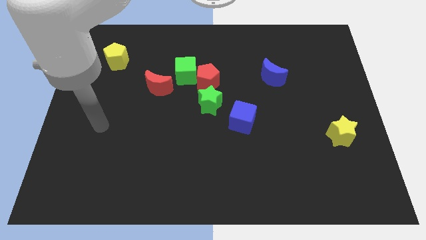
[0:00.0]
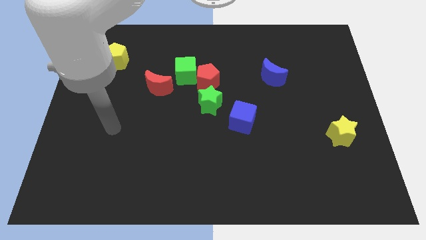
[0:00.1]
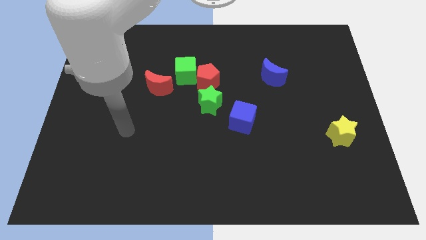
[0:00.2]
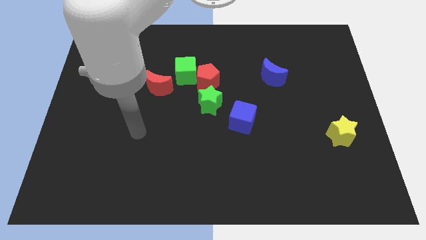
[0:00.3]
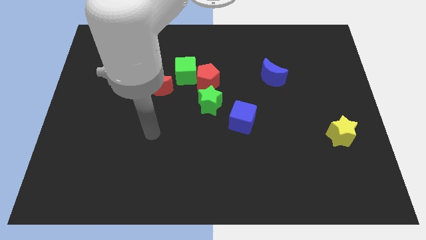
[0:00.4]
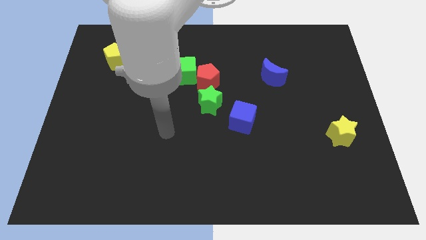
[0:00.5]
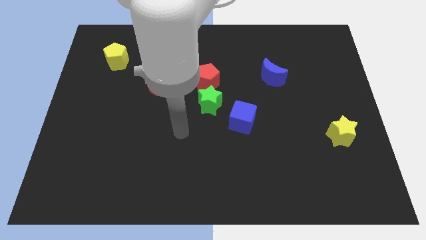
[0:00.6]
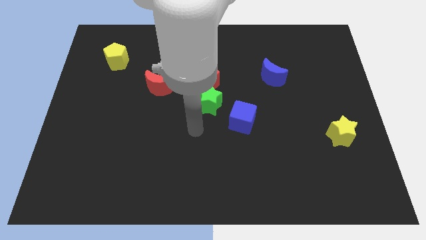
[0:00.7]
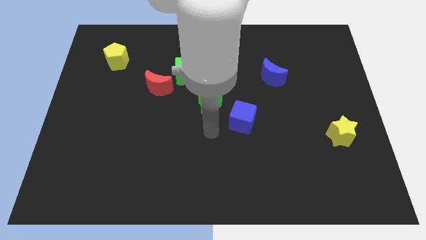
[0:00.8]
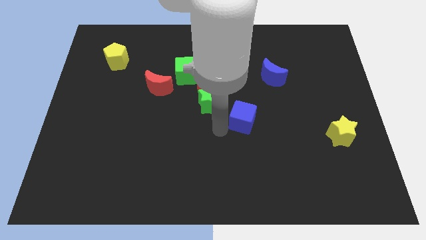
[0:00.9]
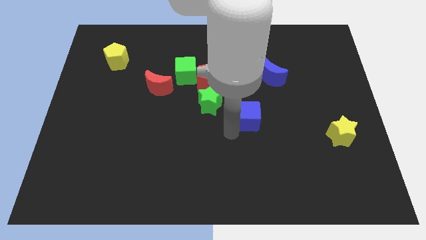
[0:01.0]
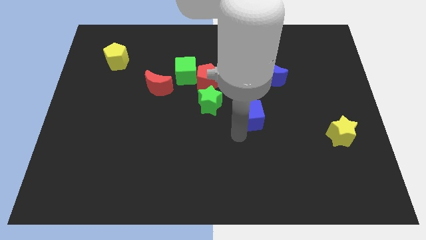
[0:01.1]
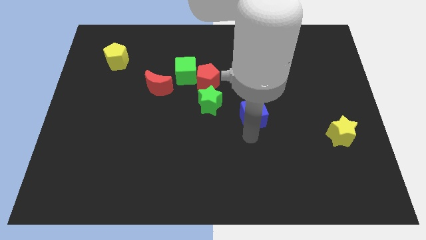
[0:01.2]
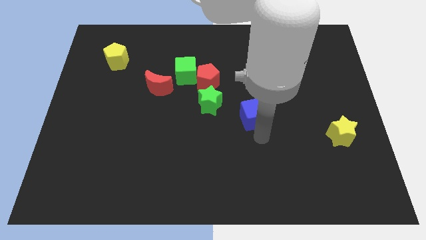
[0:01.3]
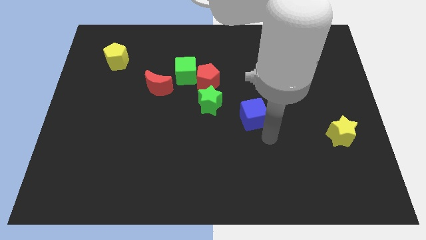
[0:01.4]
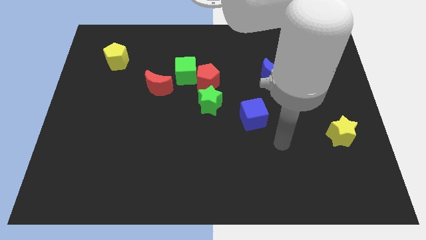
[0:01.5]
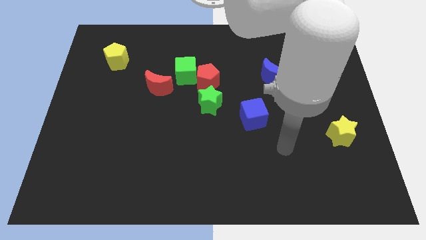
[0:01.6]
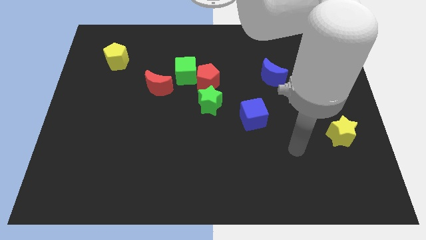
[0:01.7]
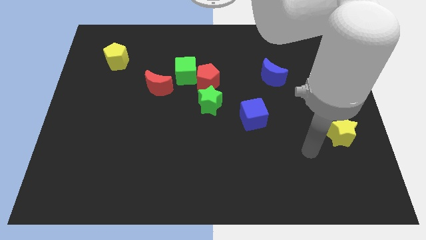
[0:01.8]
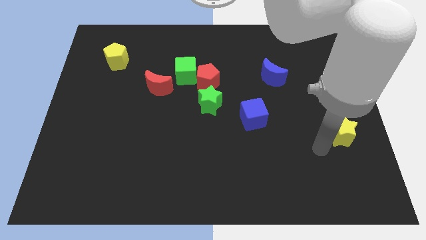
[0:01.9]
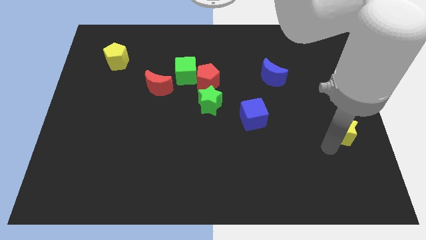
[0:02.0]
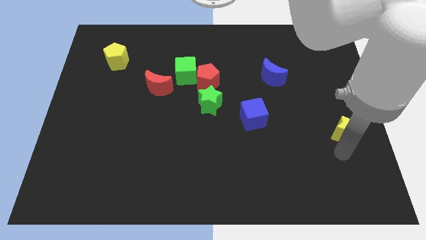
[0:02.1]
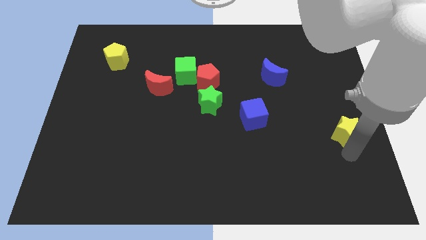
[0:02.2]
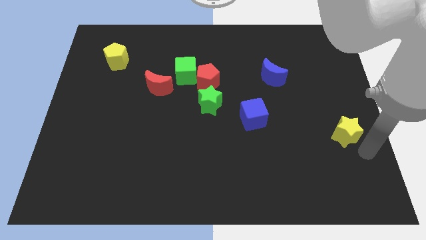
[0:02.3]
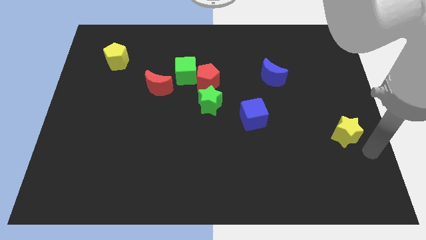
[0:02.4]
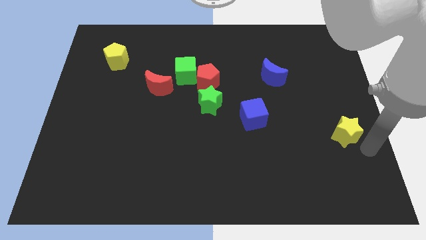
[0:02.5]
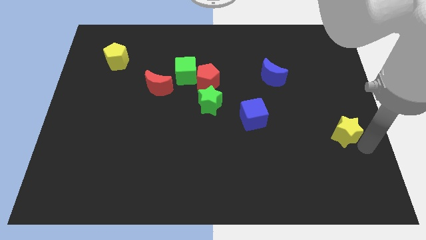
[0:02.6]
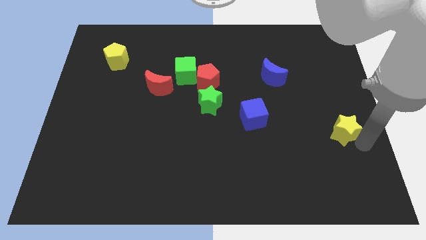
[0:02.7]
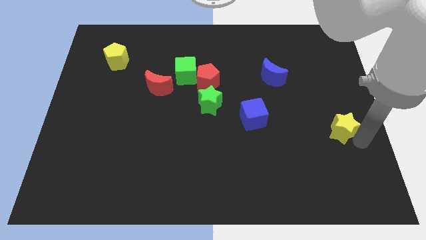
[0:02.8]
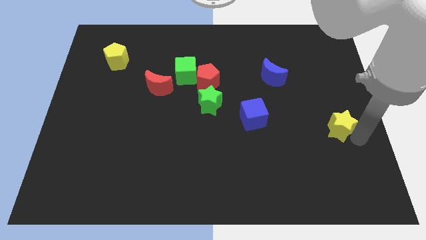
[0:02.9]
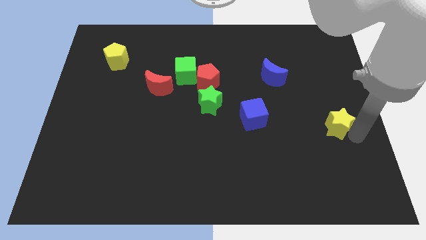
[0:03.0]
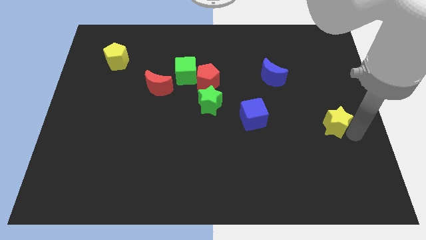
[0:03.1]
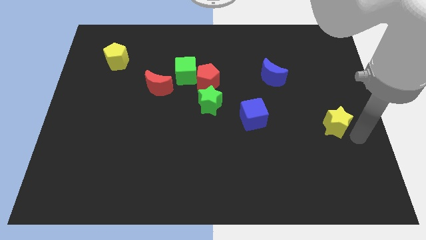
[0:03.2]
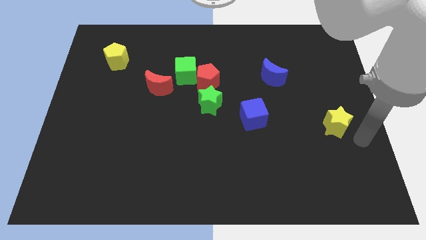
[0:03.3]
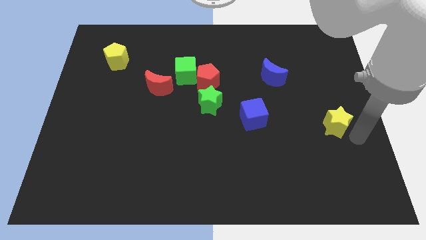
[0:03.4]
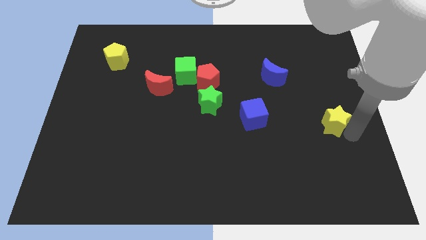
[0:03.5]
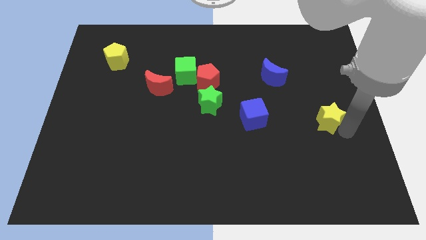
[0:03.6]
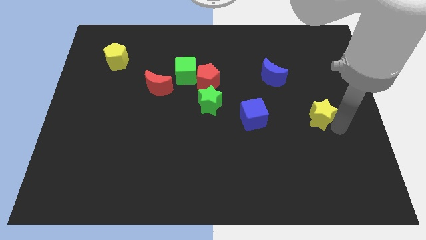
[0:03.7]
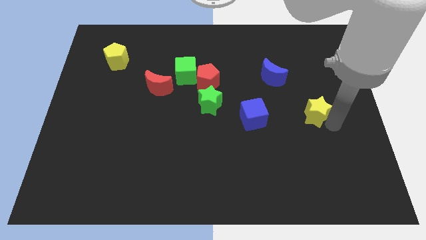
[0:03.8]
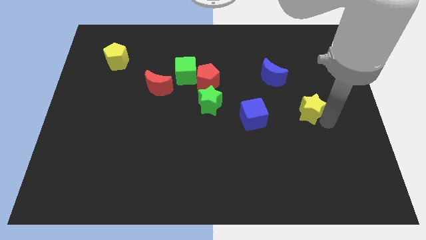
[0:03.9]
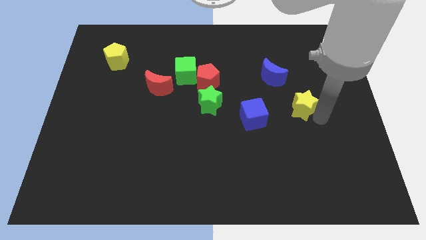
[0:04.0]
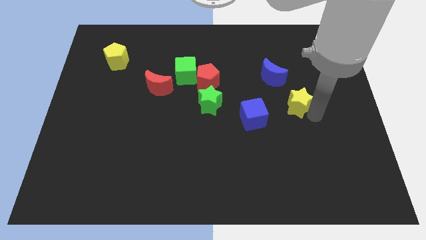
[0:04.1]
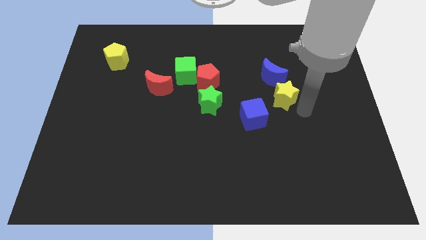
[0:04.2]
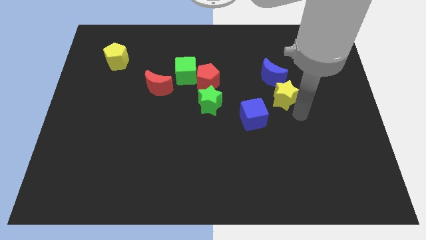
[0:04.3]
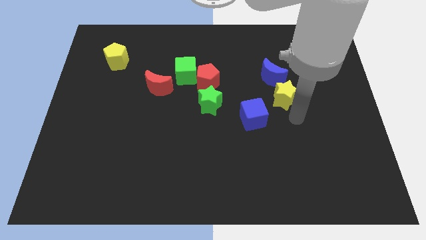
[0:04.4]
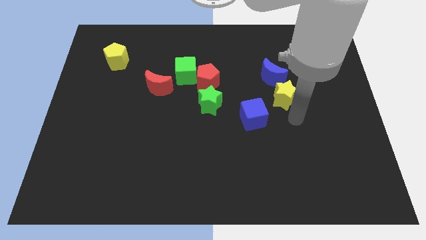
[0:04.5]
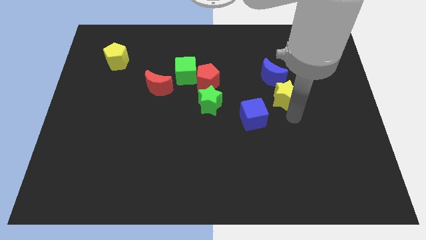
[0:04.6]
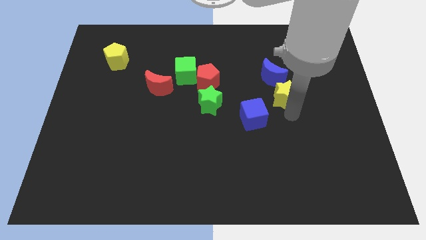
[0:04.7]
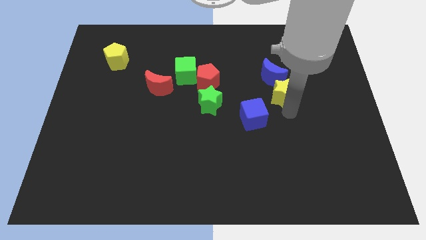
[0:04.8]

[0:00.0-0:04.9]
push the yellow star towards the blue moon

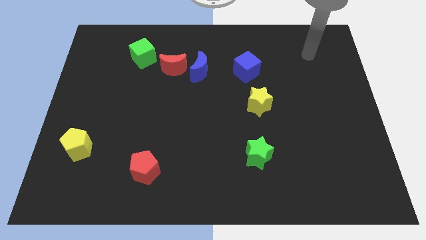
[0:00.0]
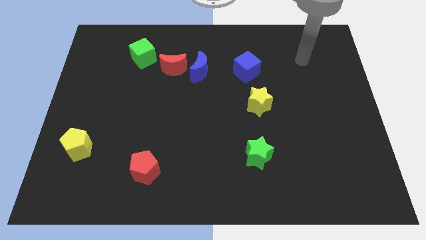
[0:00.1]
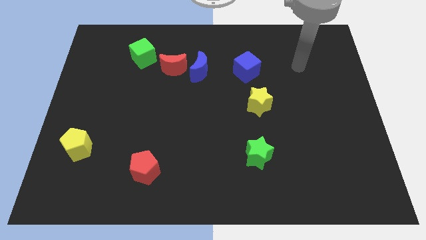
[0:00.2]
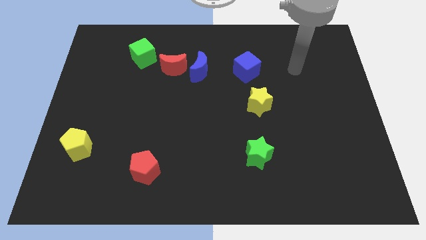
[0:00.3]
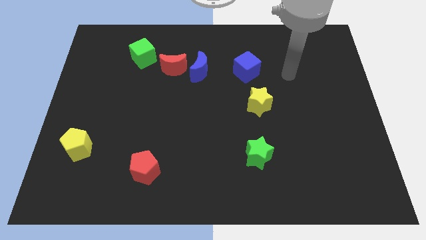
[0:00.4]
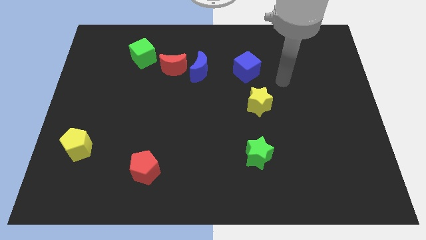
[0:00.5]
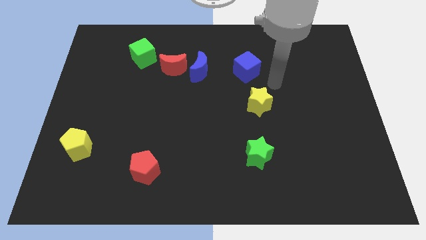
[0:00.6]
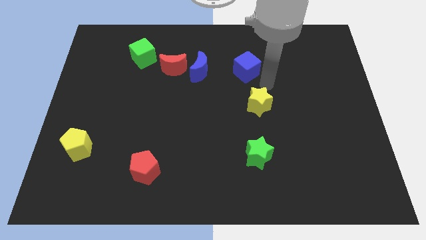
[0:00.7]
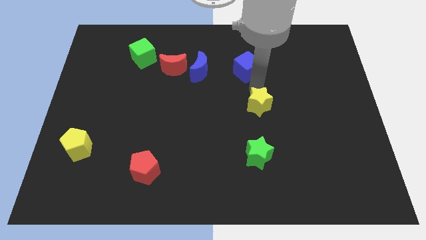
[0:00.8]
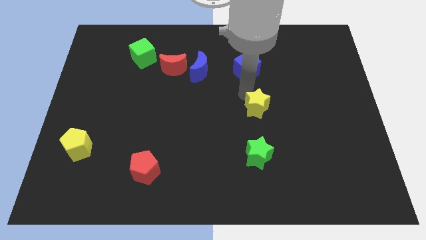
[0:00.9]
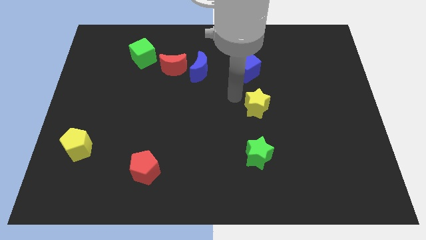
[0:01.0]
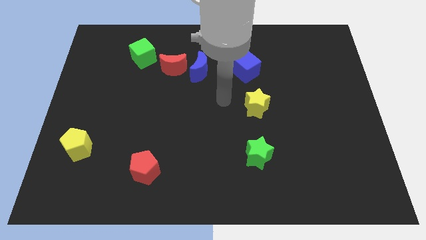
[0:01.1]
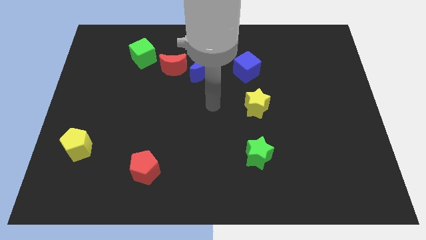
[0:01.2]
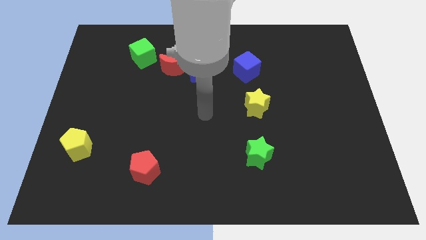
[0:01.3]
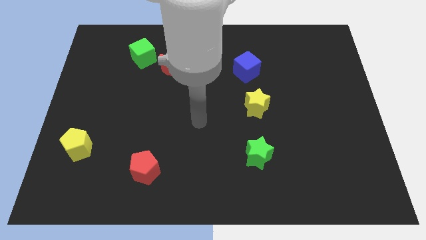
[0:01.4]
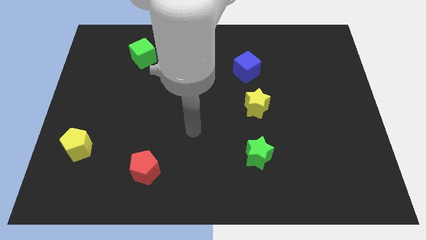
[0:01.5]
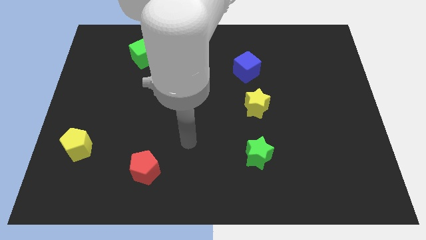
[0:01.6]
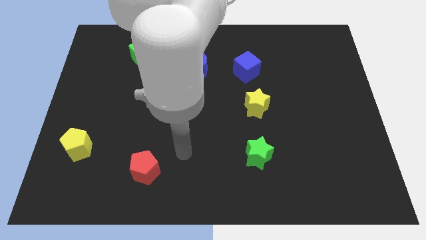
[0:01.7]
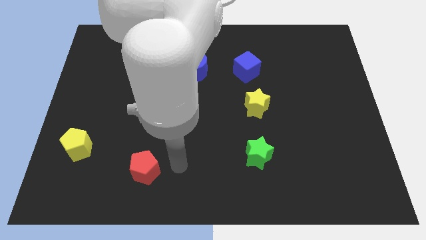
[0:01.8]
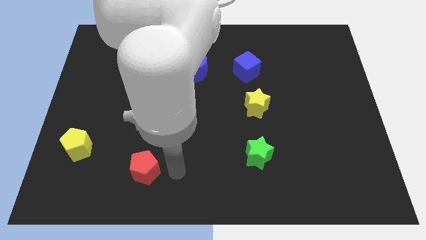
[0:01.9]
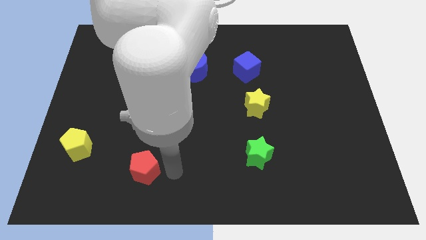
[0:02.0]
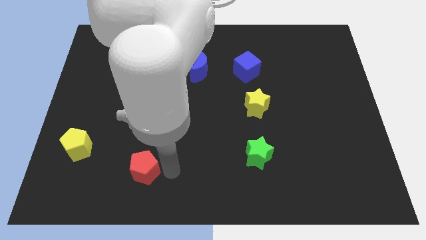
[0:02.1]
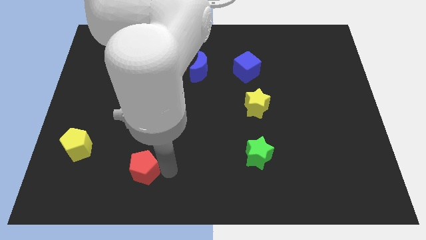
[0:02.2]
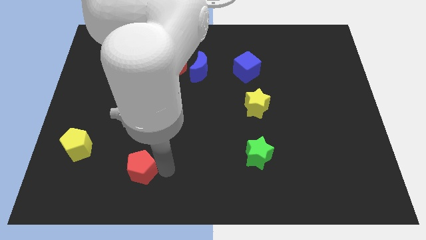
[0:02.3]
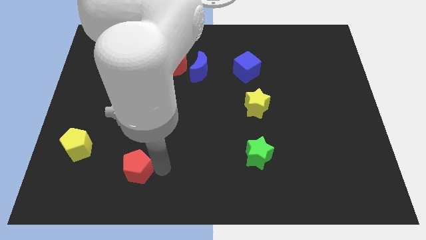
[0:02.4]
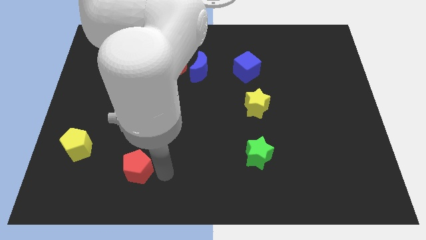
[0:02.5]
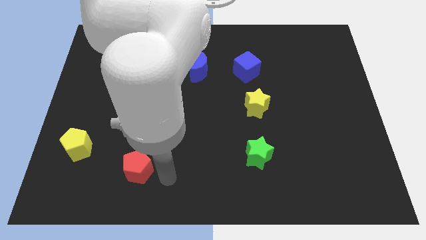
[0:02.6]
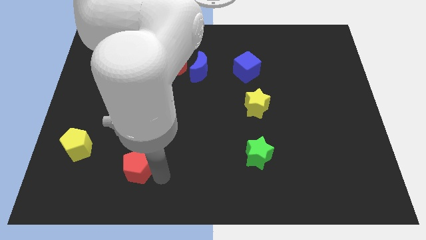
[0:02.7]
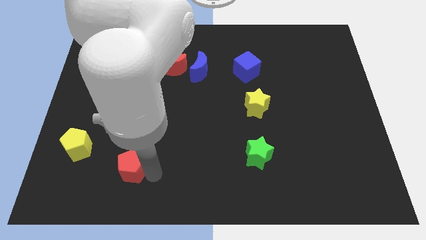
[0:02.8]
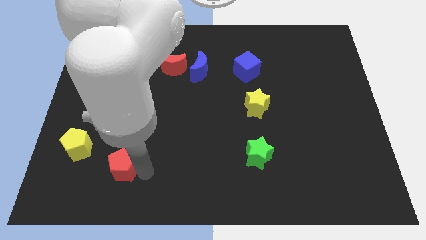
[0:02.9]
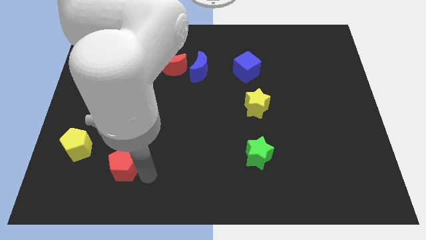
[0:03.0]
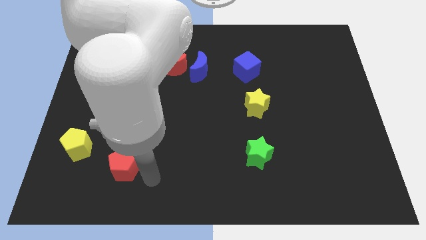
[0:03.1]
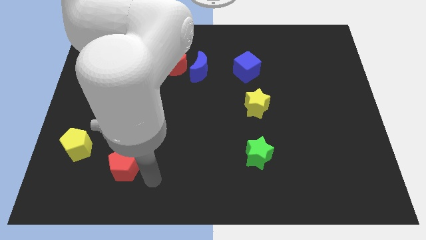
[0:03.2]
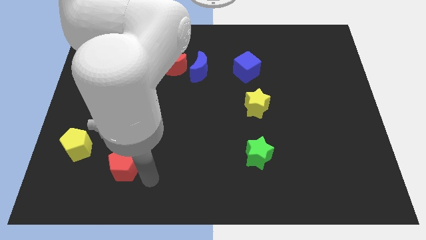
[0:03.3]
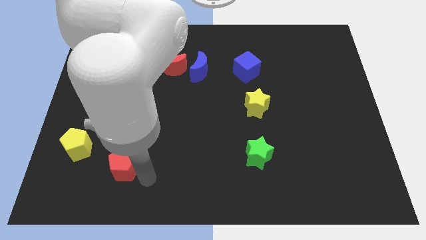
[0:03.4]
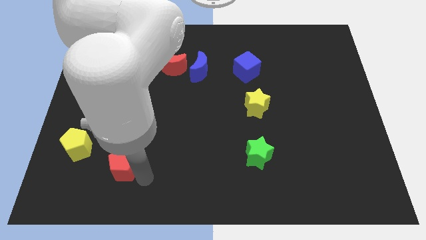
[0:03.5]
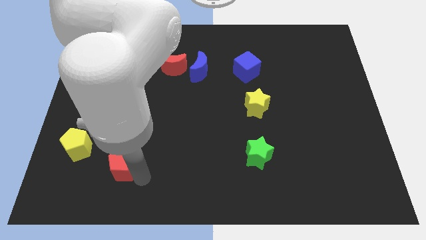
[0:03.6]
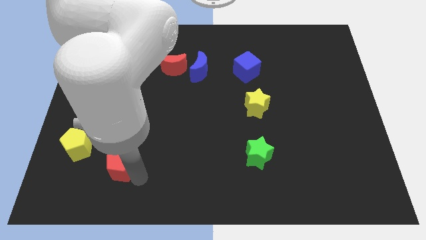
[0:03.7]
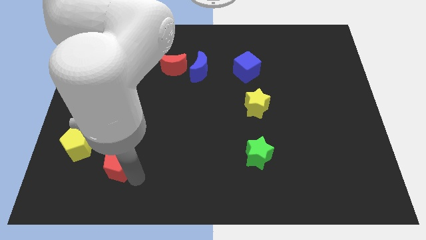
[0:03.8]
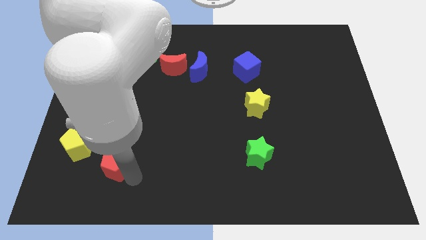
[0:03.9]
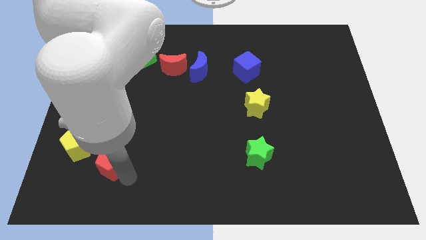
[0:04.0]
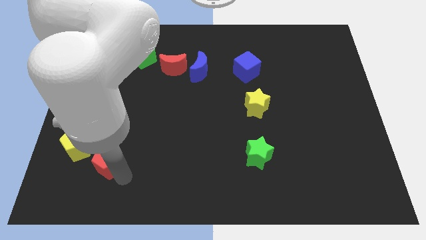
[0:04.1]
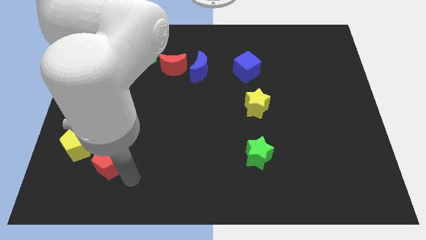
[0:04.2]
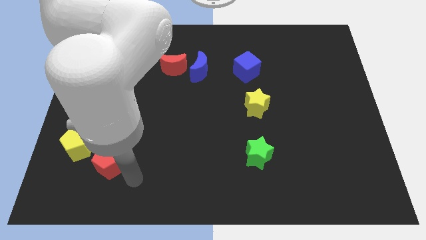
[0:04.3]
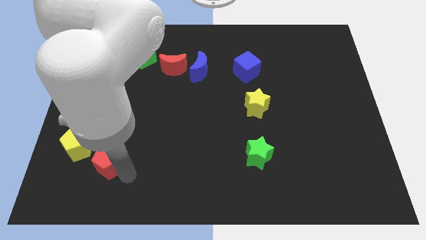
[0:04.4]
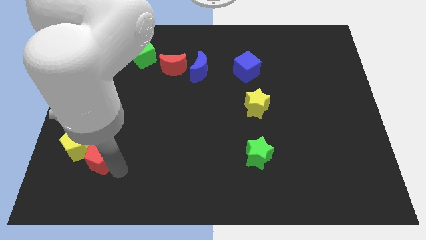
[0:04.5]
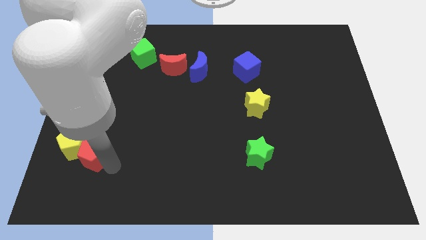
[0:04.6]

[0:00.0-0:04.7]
slide the red pentagon towards the yellow pentagon
